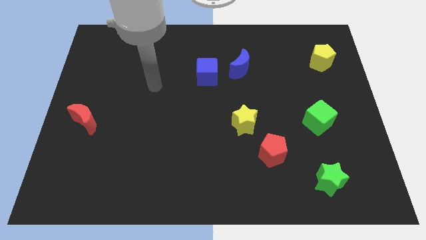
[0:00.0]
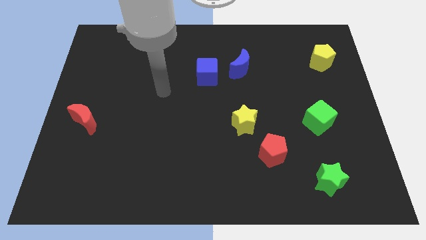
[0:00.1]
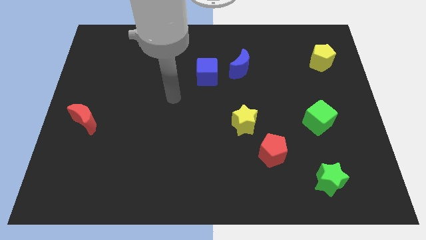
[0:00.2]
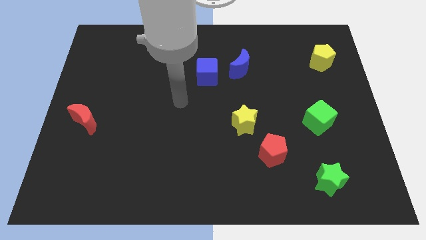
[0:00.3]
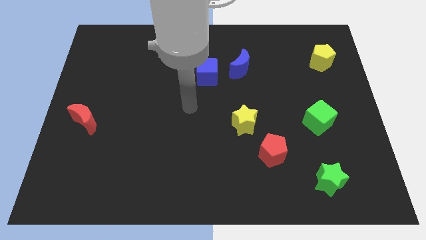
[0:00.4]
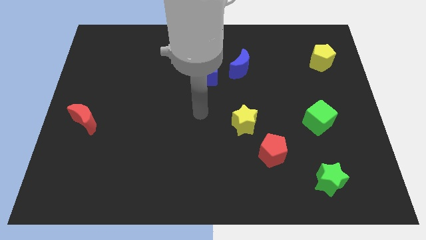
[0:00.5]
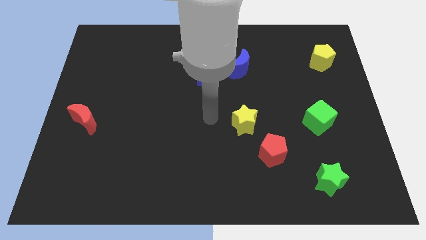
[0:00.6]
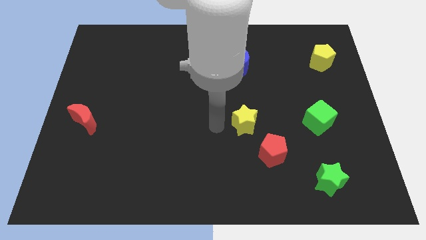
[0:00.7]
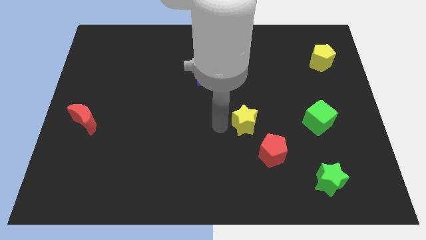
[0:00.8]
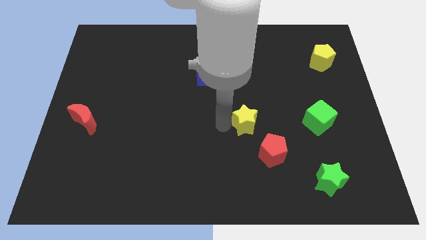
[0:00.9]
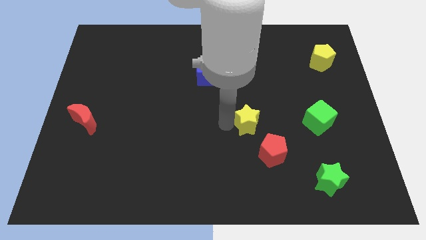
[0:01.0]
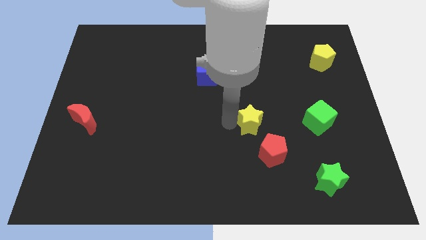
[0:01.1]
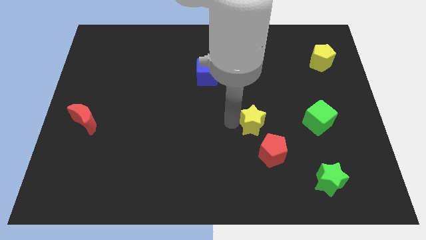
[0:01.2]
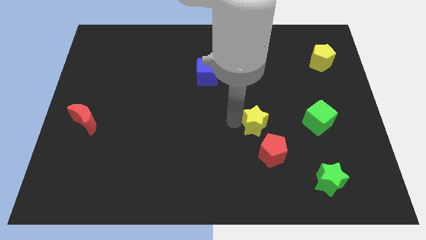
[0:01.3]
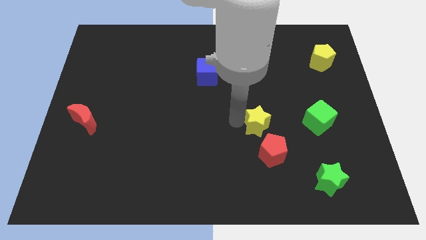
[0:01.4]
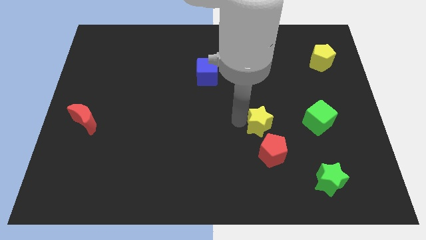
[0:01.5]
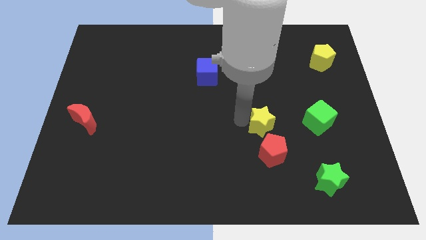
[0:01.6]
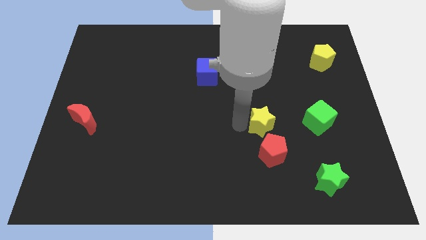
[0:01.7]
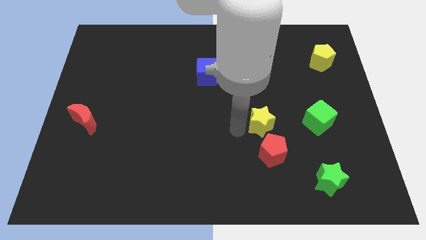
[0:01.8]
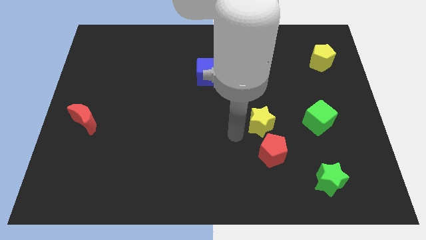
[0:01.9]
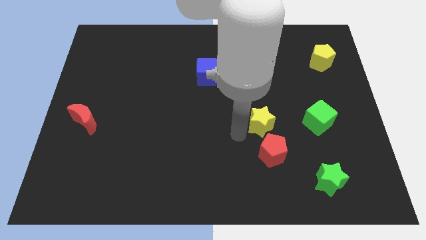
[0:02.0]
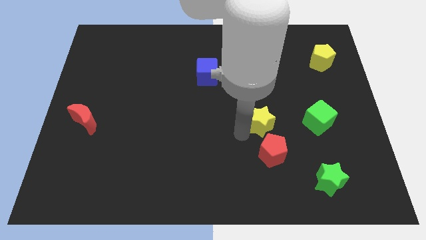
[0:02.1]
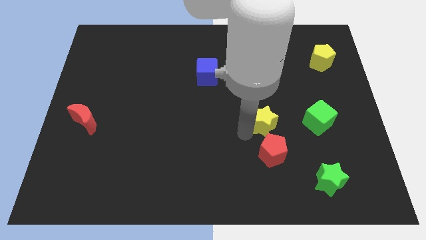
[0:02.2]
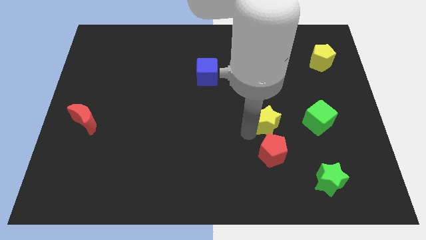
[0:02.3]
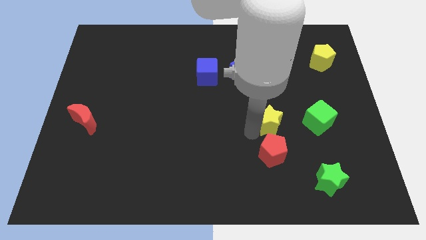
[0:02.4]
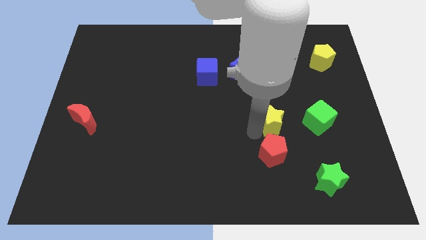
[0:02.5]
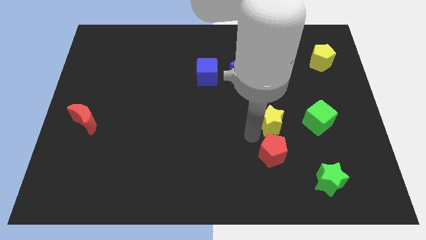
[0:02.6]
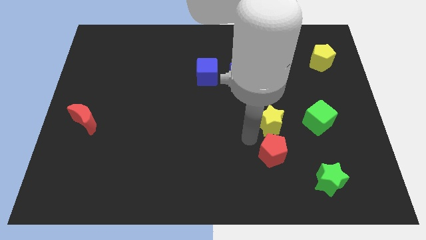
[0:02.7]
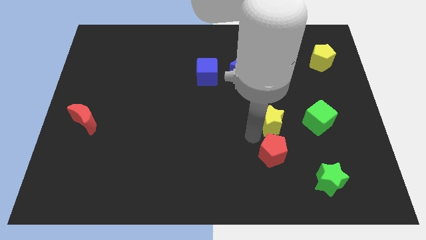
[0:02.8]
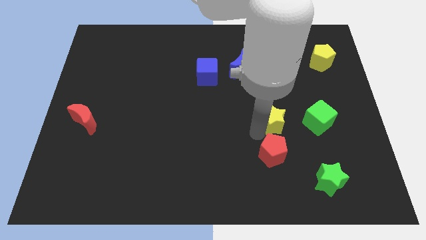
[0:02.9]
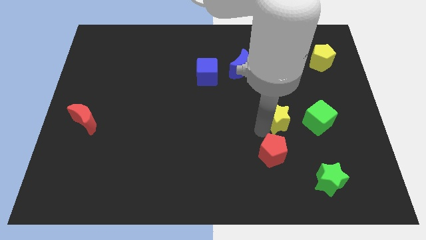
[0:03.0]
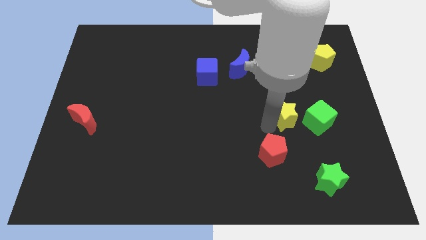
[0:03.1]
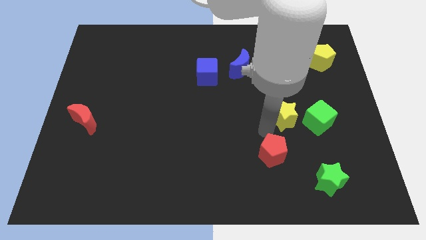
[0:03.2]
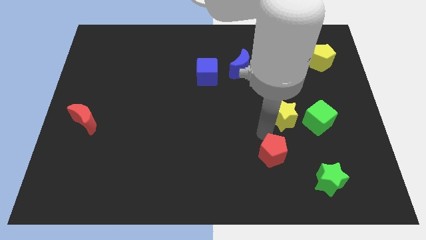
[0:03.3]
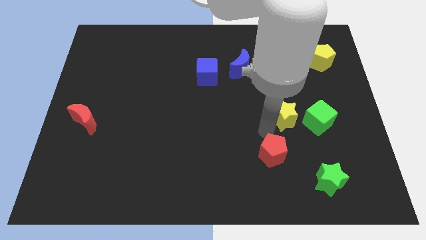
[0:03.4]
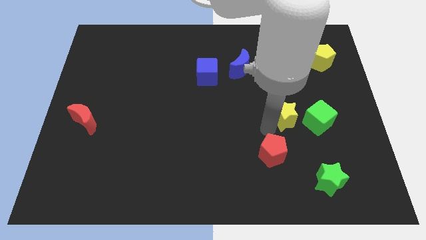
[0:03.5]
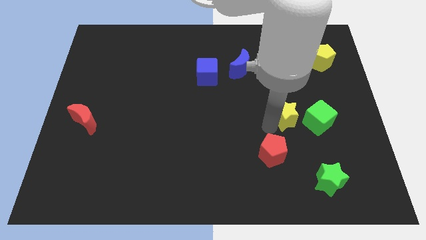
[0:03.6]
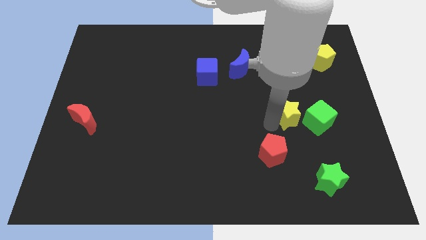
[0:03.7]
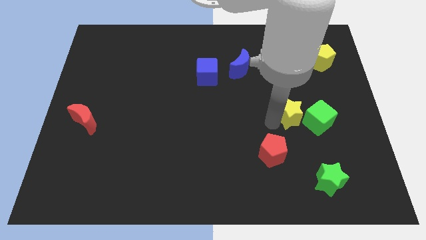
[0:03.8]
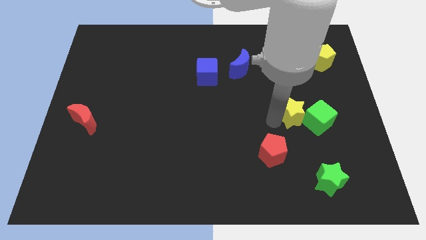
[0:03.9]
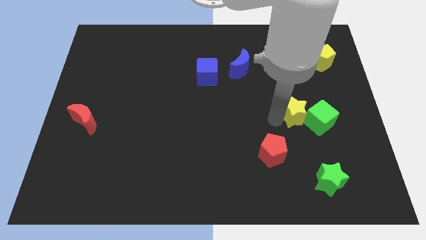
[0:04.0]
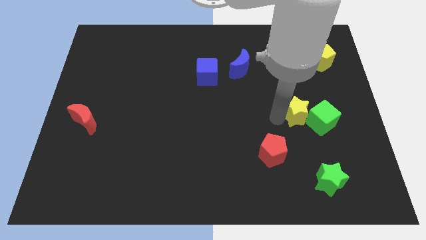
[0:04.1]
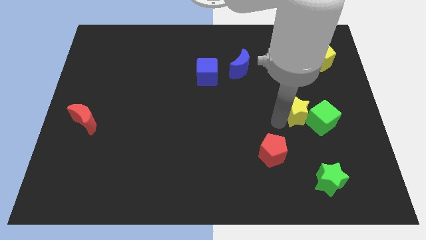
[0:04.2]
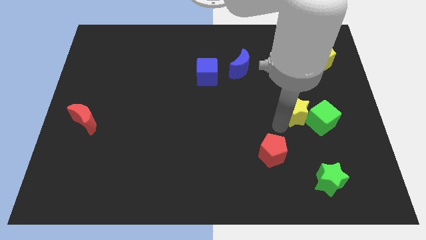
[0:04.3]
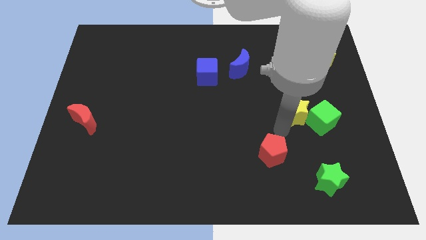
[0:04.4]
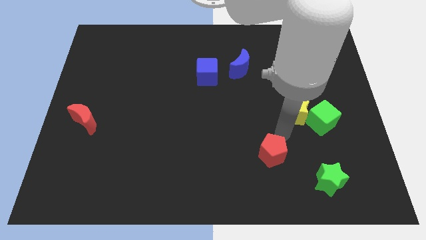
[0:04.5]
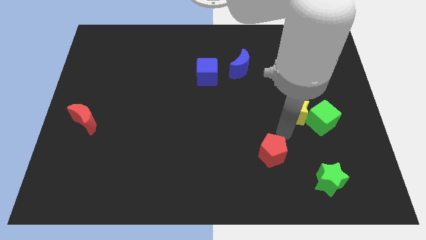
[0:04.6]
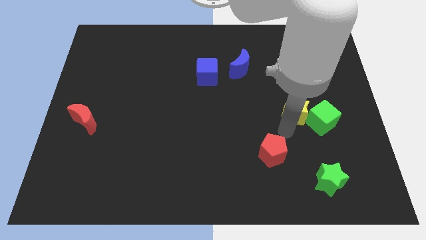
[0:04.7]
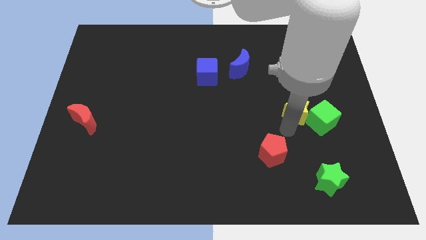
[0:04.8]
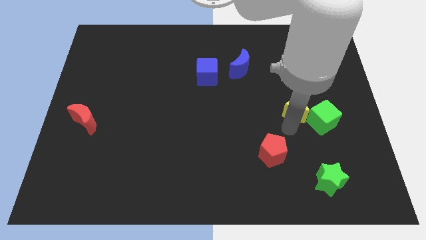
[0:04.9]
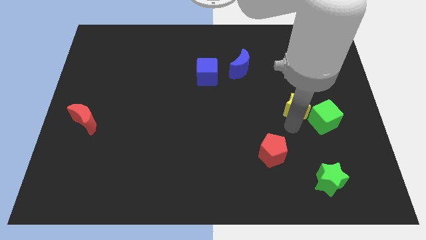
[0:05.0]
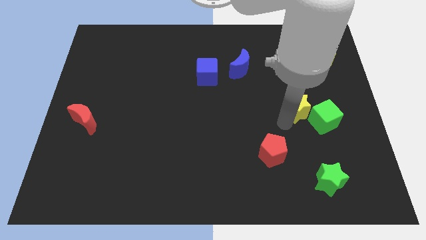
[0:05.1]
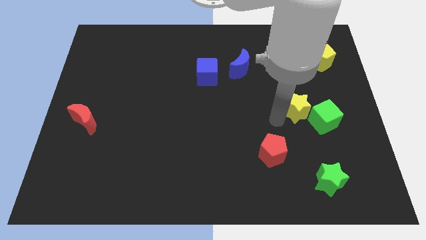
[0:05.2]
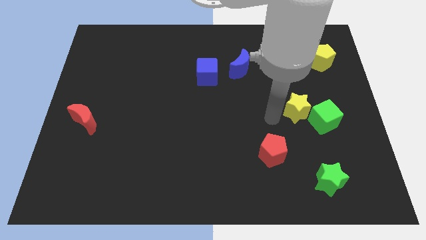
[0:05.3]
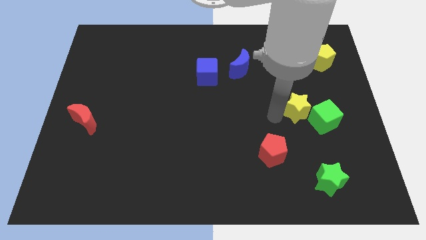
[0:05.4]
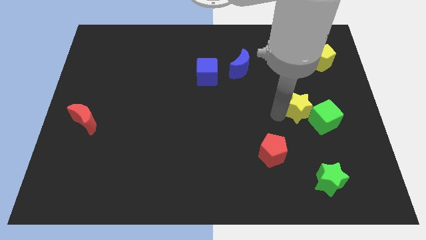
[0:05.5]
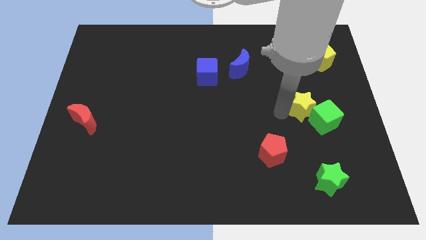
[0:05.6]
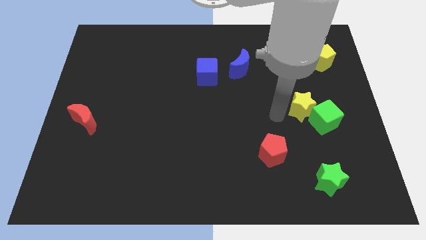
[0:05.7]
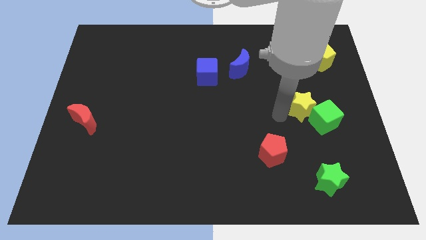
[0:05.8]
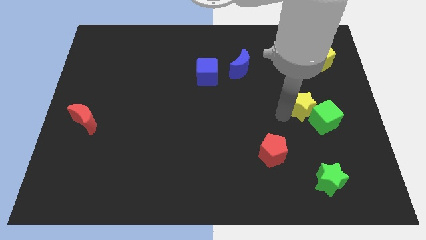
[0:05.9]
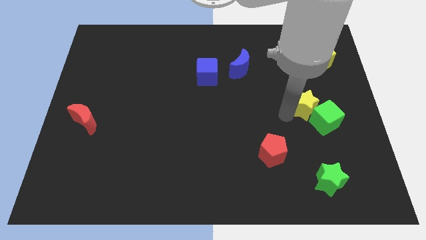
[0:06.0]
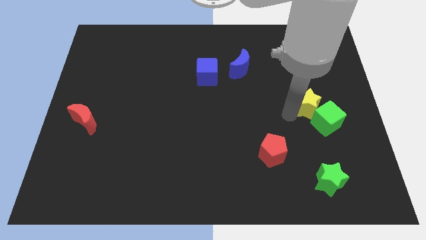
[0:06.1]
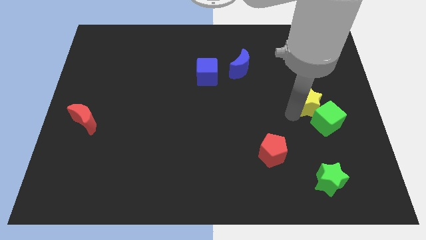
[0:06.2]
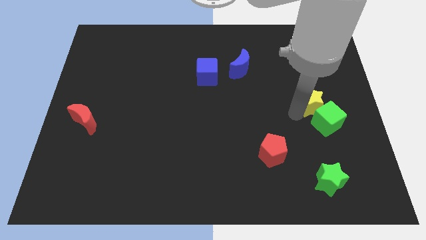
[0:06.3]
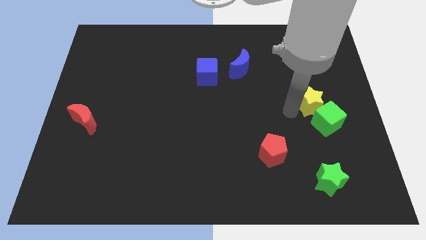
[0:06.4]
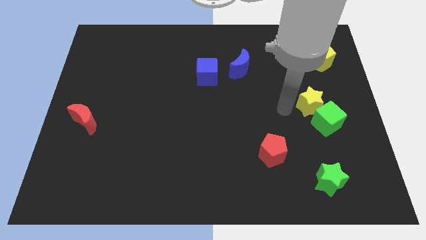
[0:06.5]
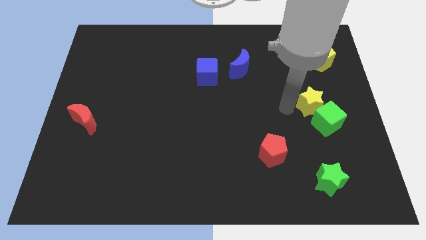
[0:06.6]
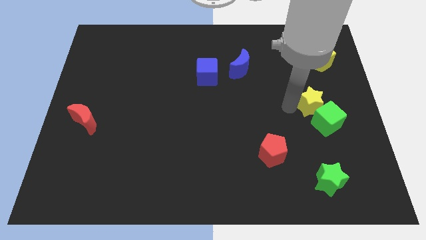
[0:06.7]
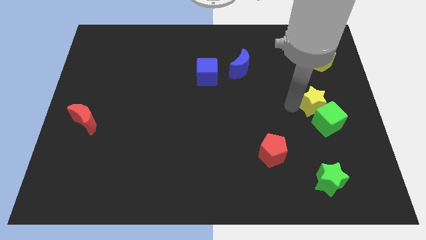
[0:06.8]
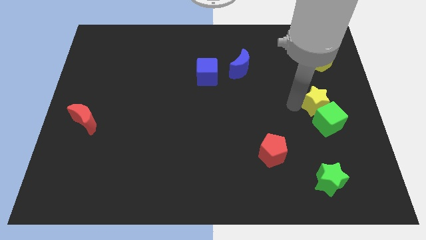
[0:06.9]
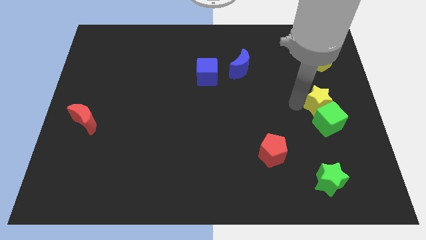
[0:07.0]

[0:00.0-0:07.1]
put the yellow star to the right side of the board
